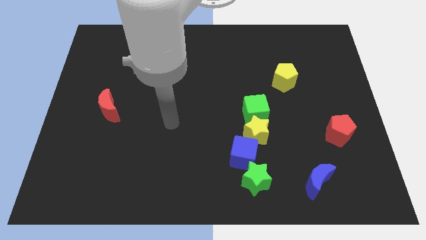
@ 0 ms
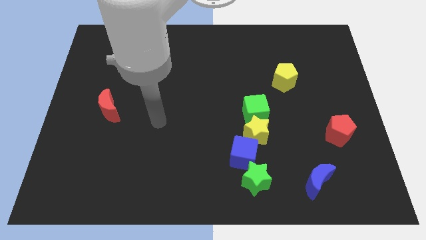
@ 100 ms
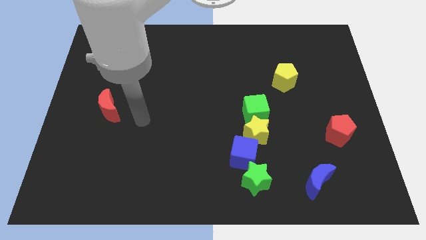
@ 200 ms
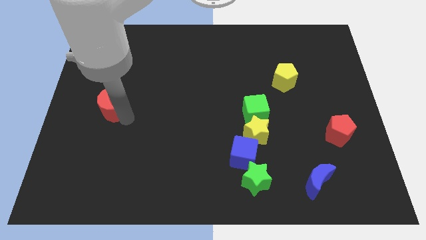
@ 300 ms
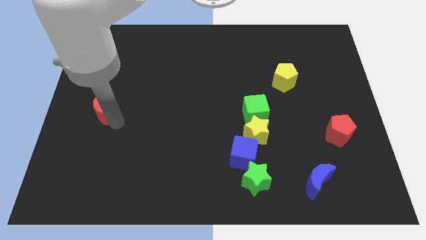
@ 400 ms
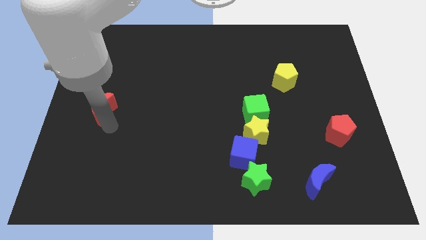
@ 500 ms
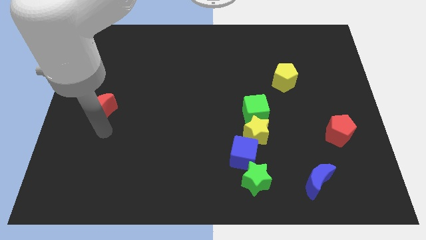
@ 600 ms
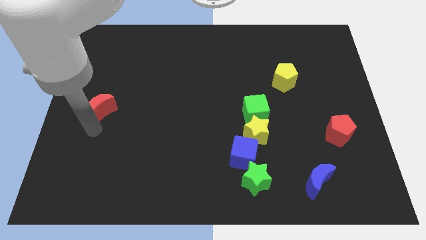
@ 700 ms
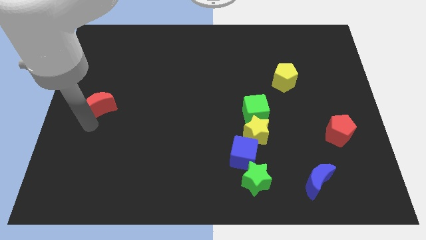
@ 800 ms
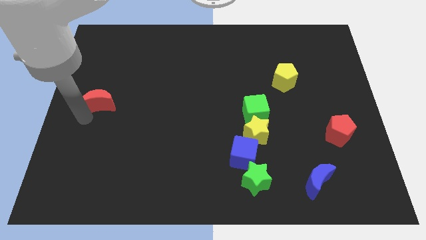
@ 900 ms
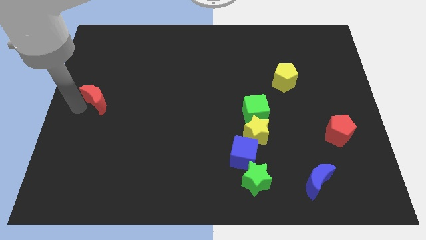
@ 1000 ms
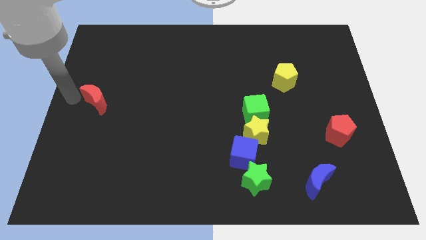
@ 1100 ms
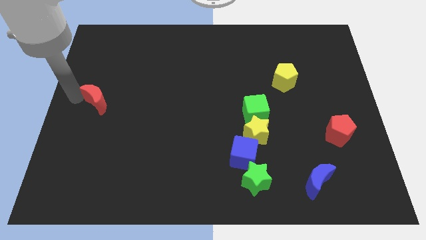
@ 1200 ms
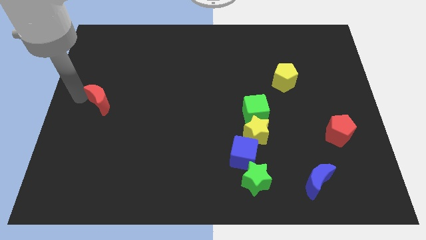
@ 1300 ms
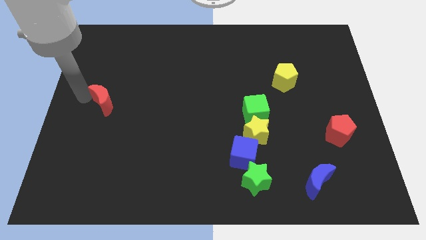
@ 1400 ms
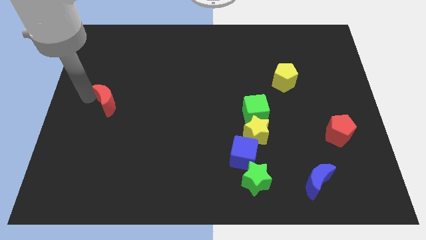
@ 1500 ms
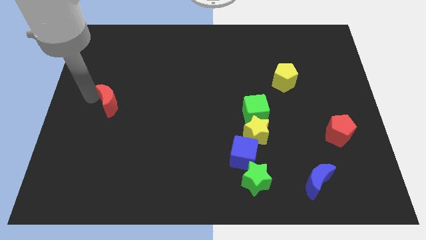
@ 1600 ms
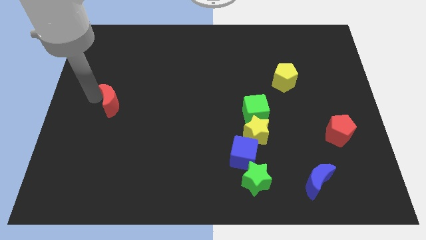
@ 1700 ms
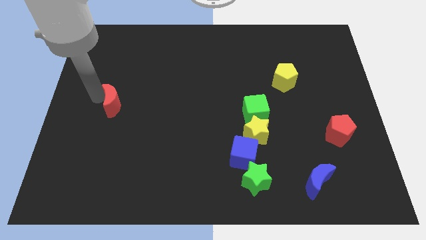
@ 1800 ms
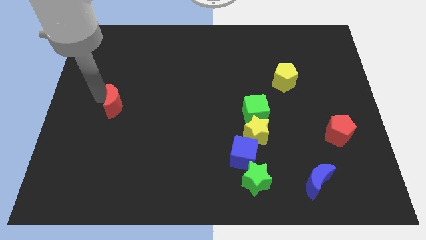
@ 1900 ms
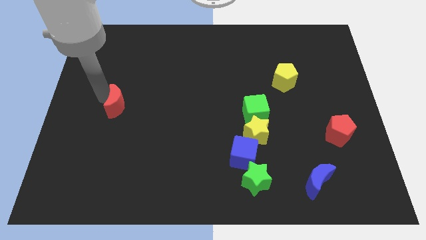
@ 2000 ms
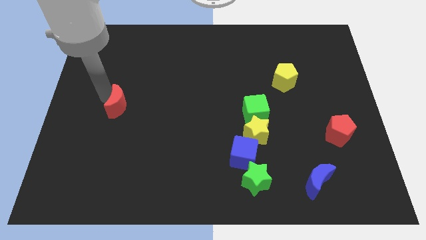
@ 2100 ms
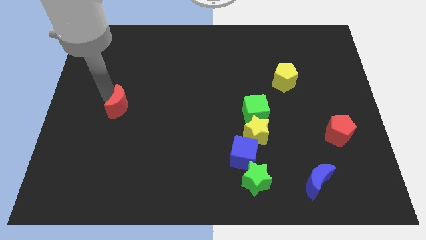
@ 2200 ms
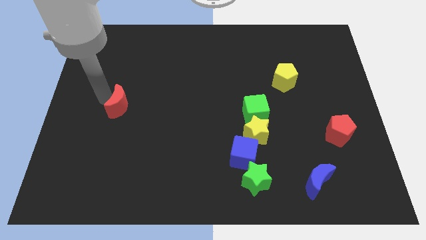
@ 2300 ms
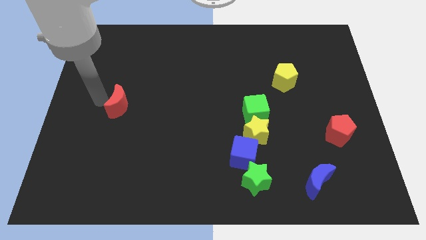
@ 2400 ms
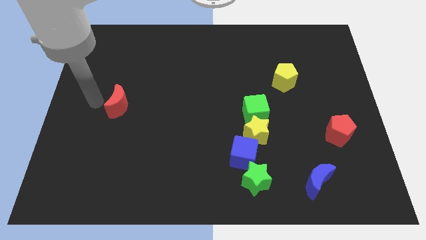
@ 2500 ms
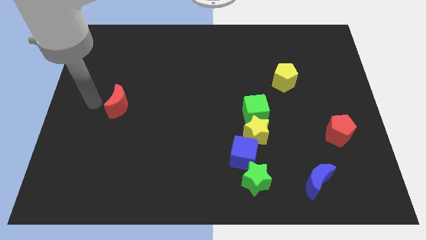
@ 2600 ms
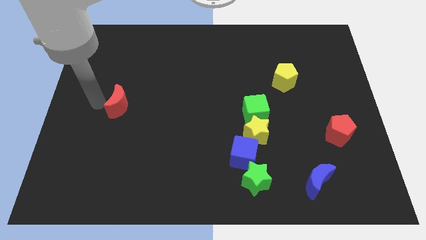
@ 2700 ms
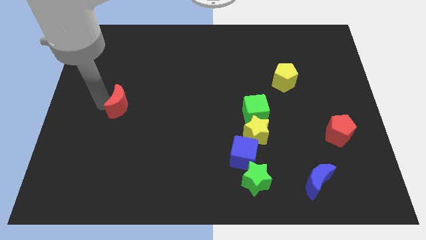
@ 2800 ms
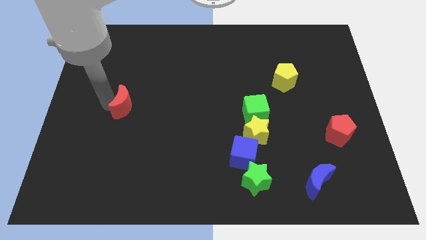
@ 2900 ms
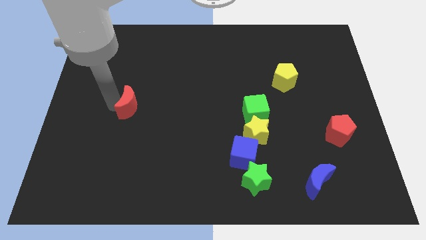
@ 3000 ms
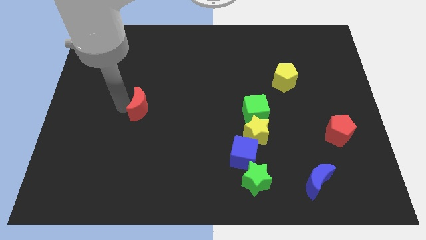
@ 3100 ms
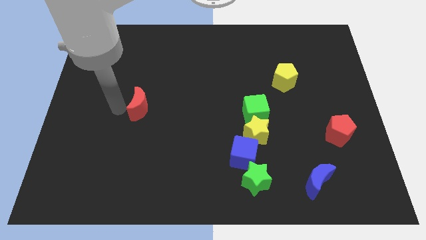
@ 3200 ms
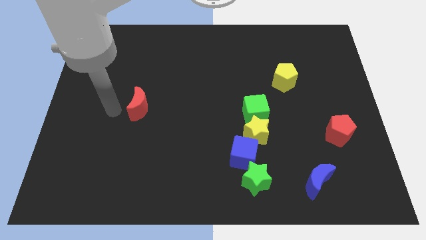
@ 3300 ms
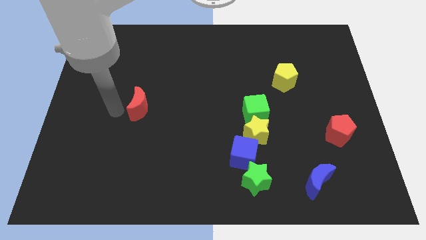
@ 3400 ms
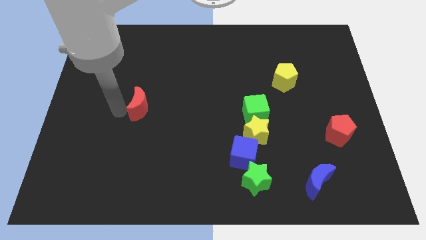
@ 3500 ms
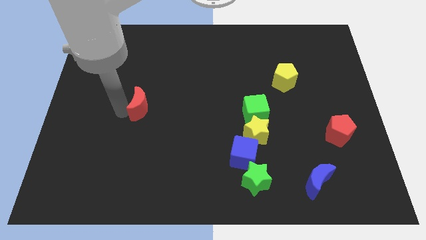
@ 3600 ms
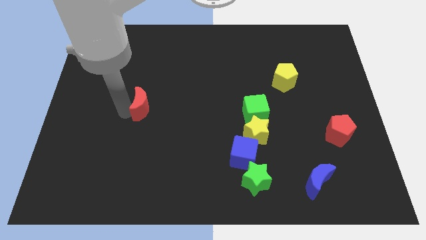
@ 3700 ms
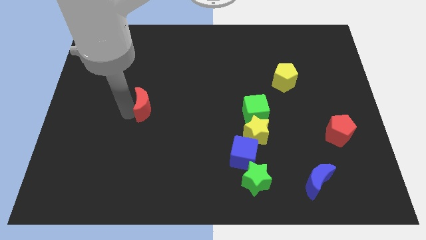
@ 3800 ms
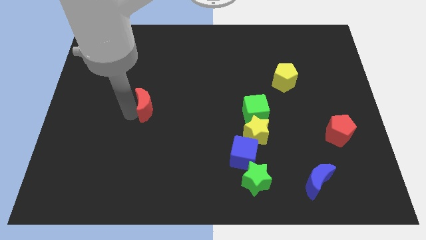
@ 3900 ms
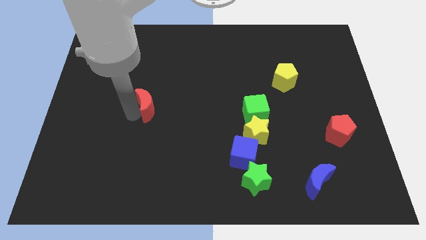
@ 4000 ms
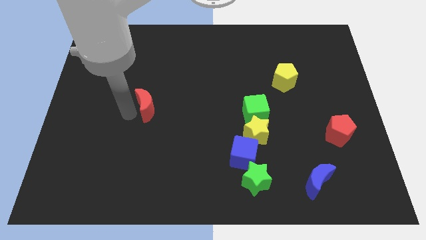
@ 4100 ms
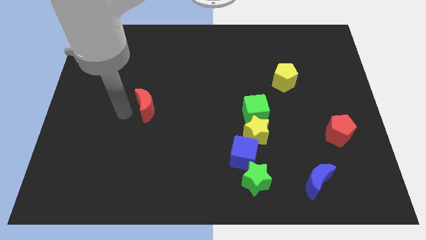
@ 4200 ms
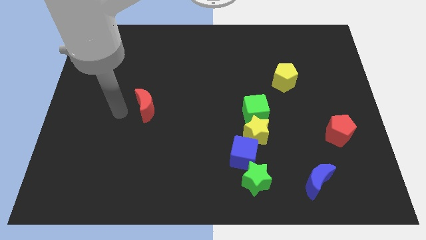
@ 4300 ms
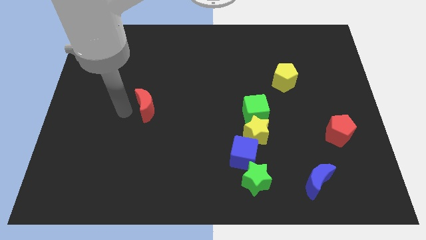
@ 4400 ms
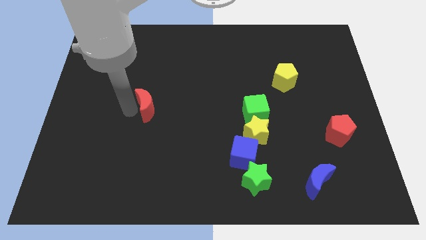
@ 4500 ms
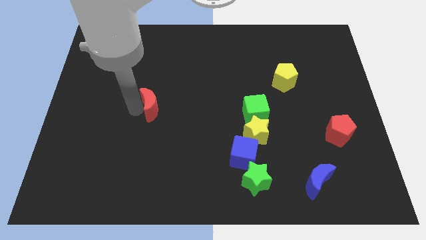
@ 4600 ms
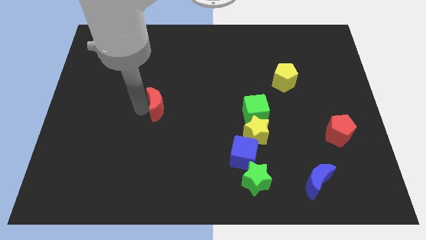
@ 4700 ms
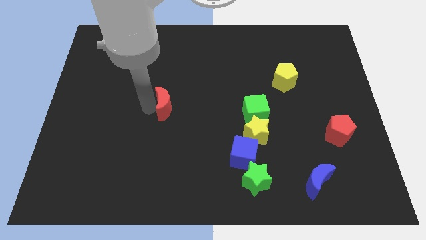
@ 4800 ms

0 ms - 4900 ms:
push the red moon to the middle
